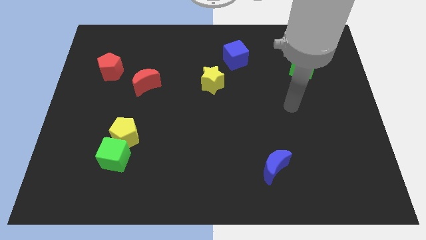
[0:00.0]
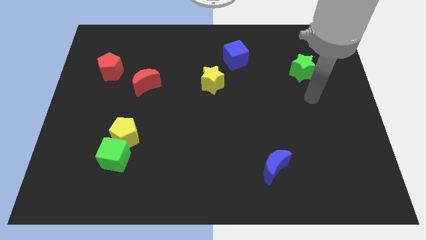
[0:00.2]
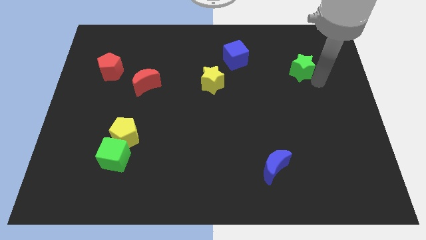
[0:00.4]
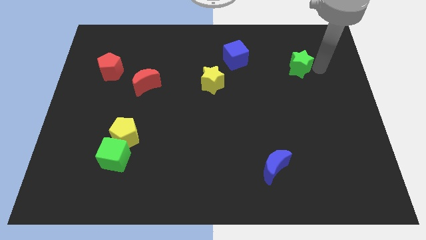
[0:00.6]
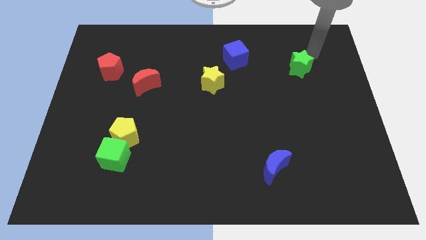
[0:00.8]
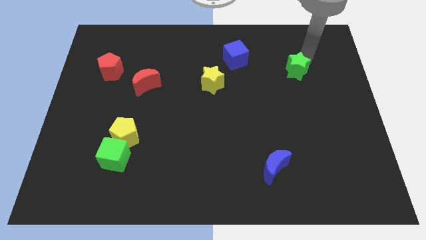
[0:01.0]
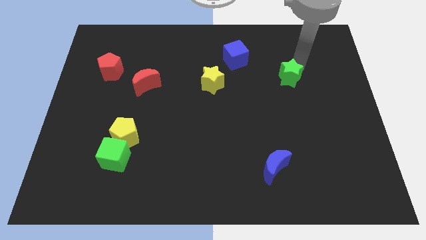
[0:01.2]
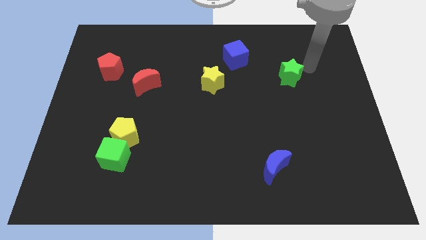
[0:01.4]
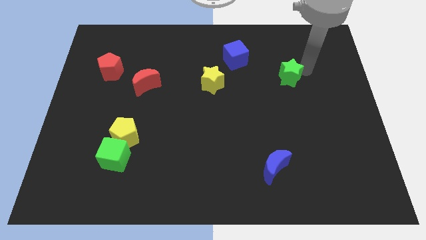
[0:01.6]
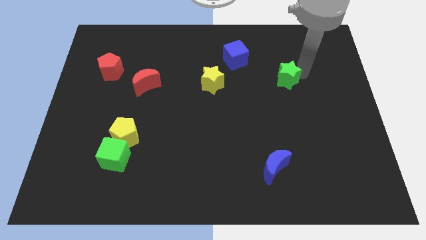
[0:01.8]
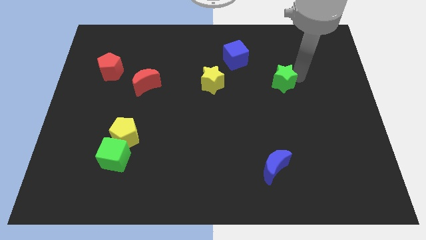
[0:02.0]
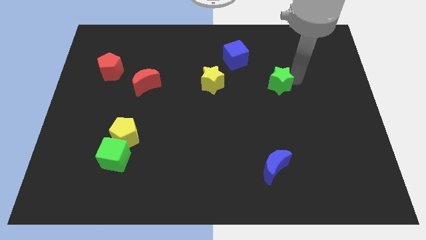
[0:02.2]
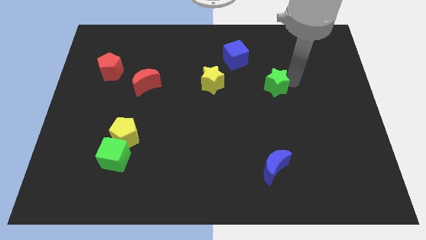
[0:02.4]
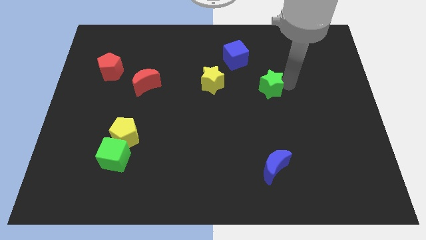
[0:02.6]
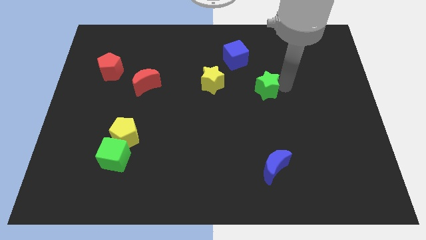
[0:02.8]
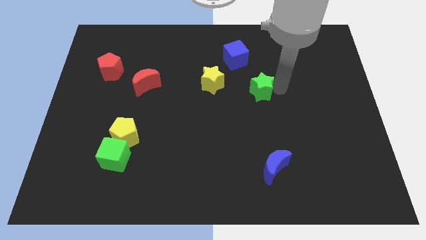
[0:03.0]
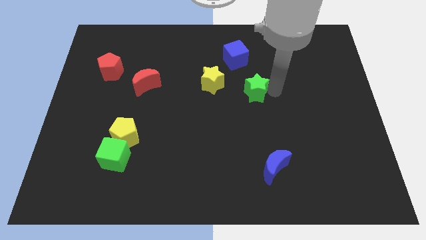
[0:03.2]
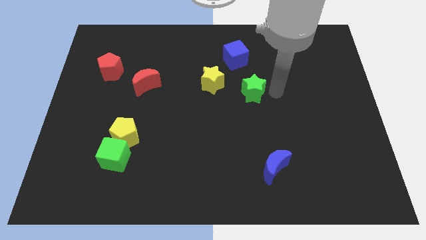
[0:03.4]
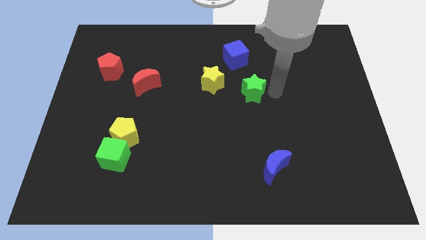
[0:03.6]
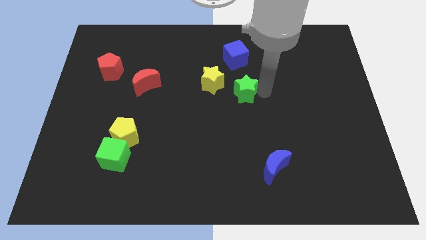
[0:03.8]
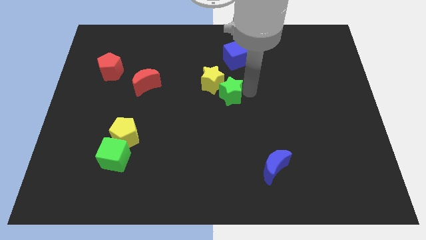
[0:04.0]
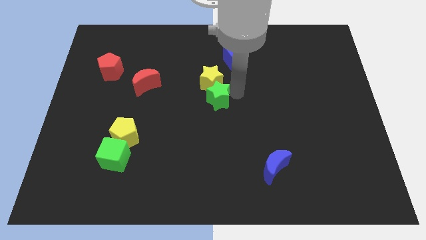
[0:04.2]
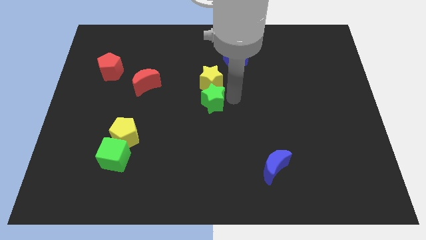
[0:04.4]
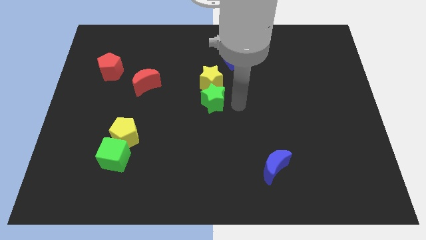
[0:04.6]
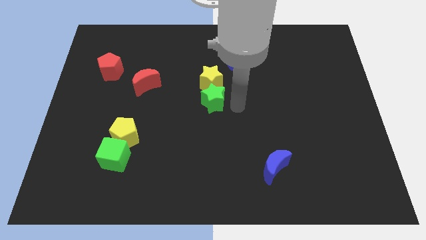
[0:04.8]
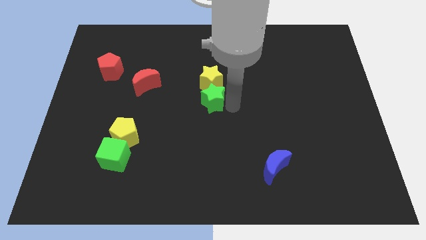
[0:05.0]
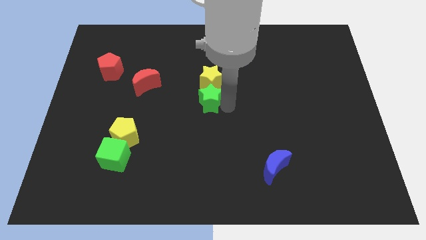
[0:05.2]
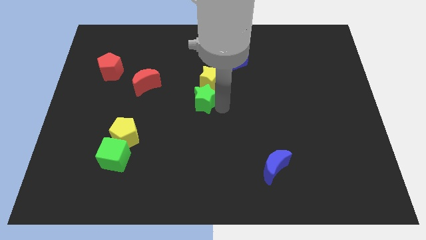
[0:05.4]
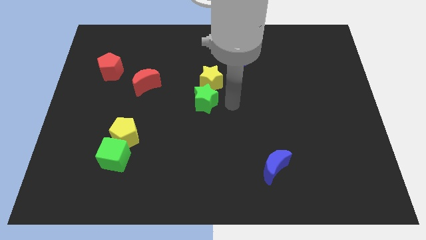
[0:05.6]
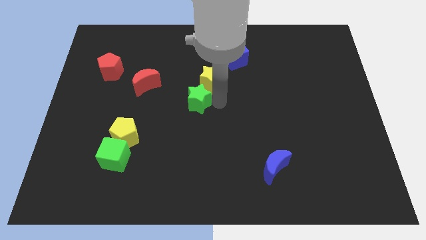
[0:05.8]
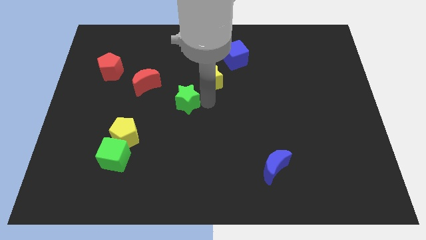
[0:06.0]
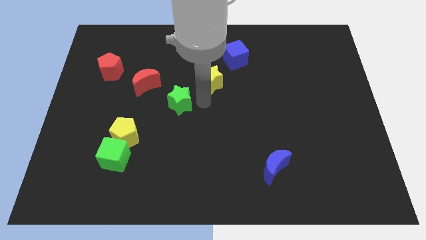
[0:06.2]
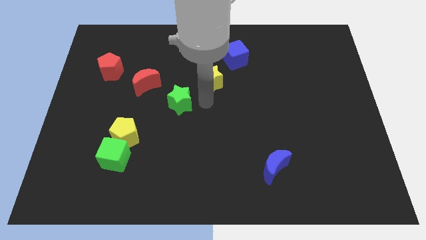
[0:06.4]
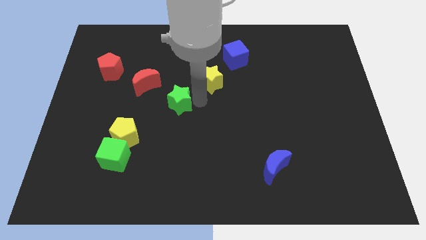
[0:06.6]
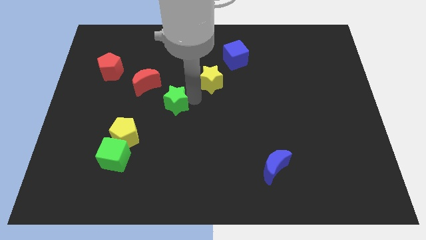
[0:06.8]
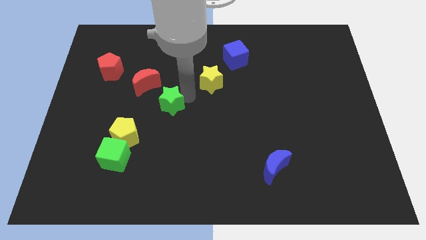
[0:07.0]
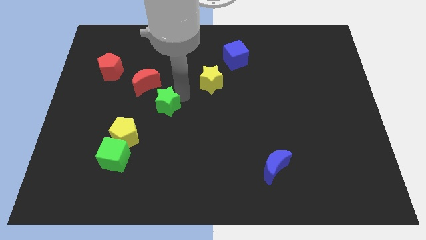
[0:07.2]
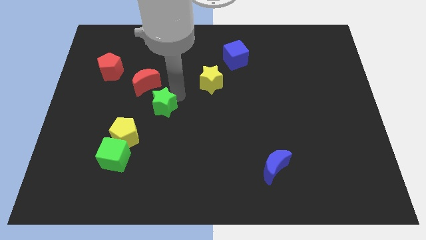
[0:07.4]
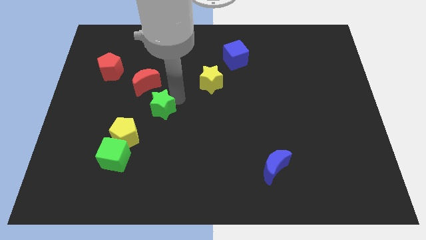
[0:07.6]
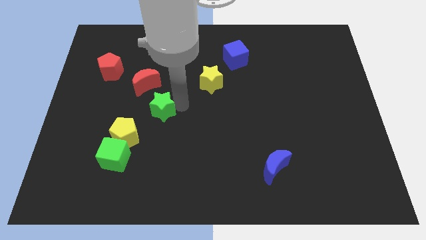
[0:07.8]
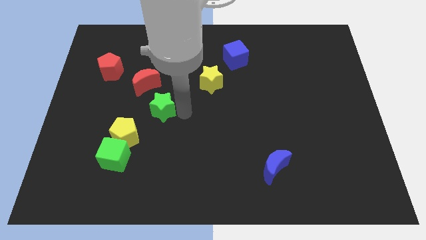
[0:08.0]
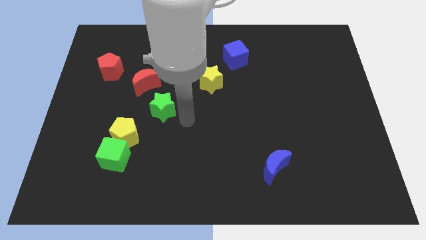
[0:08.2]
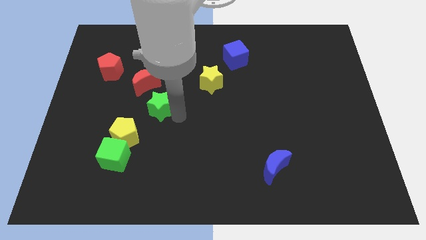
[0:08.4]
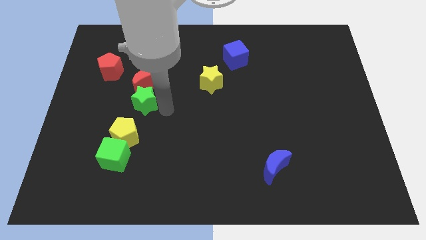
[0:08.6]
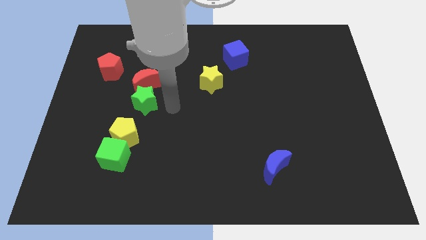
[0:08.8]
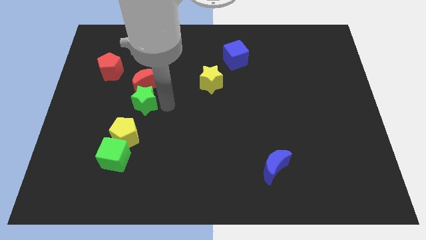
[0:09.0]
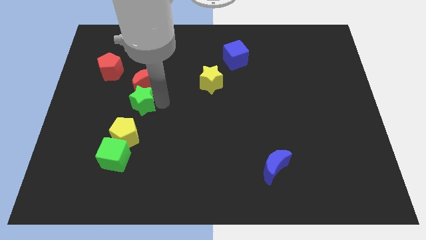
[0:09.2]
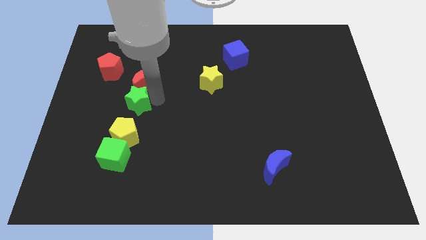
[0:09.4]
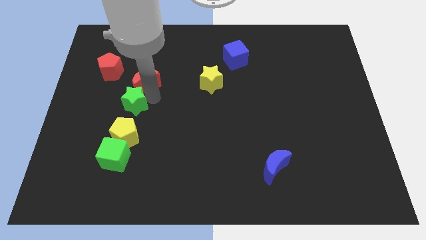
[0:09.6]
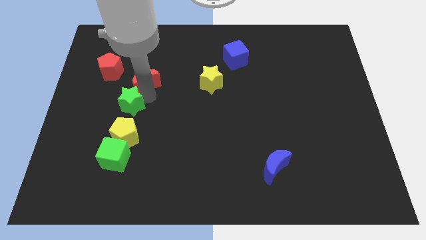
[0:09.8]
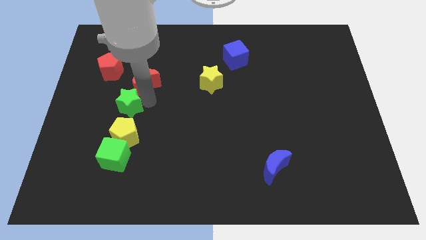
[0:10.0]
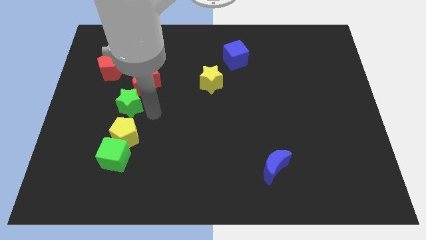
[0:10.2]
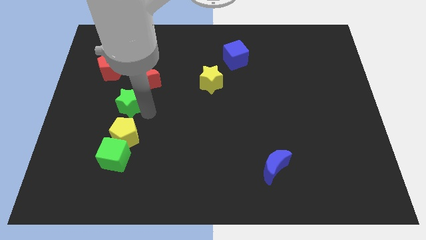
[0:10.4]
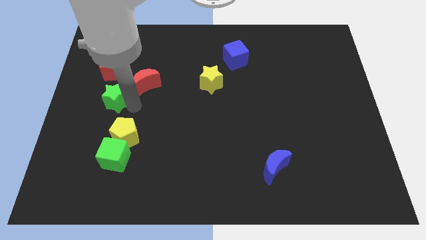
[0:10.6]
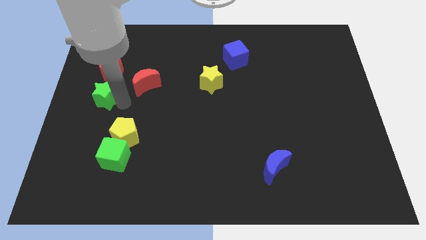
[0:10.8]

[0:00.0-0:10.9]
slide the green star to the left side
